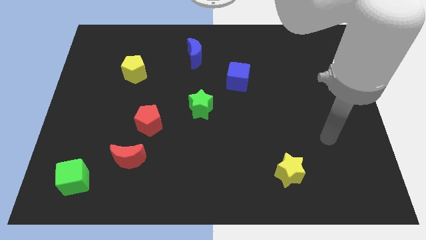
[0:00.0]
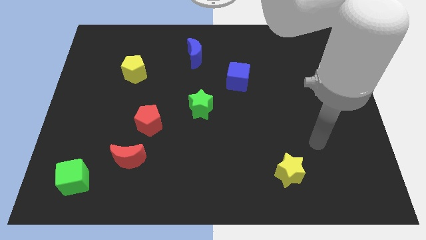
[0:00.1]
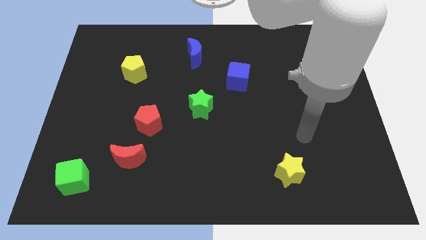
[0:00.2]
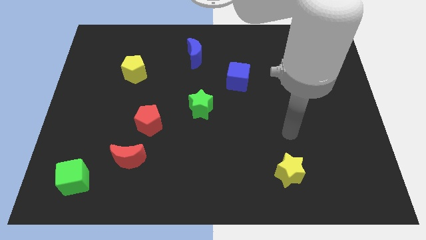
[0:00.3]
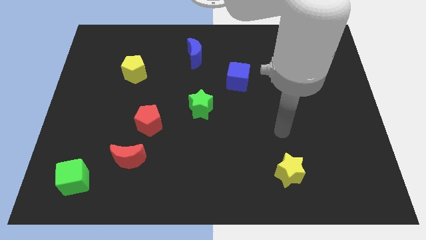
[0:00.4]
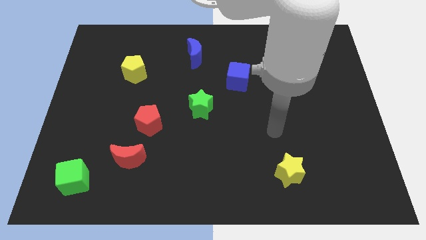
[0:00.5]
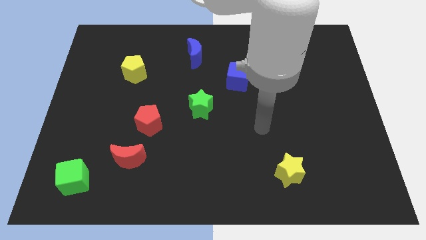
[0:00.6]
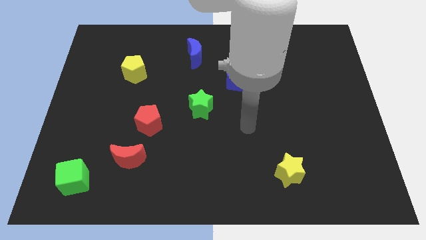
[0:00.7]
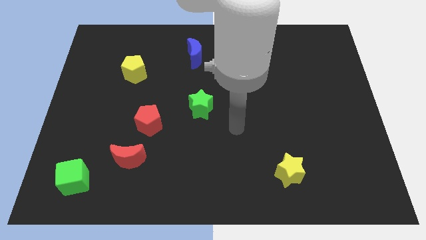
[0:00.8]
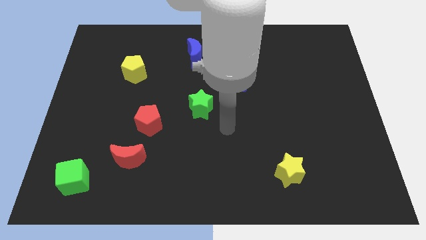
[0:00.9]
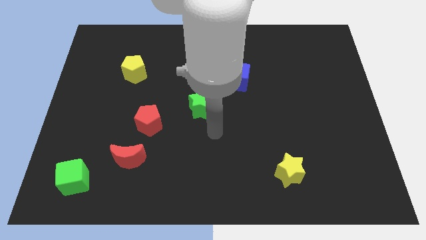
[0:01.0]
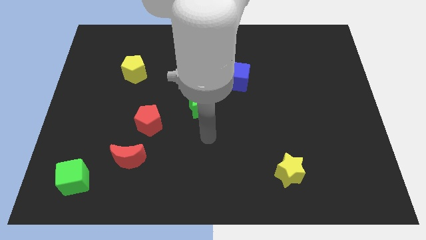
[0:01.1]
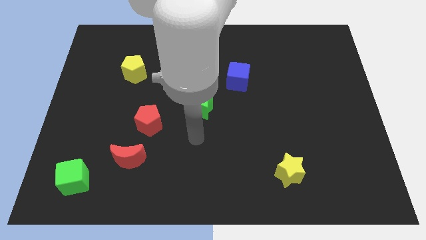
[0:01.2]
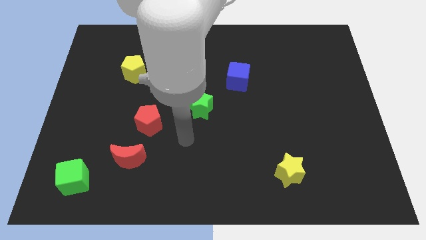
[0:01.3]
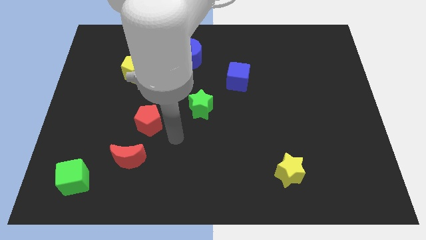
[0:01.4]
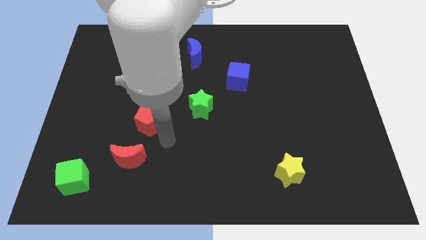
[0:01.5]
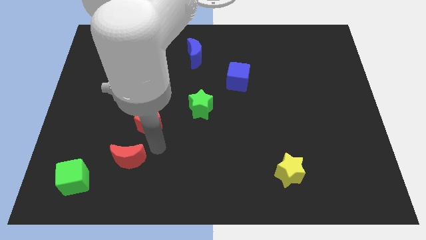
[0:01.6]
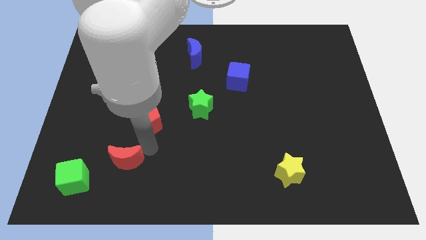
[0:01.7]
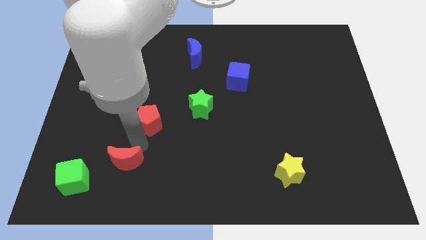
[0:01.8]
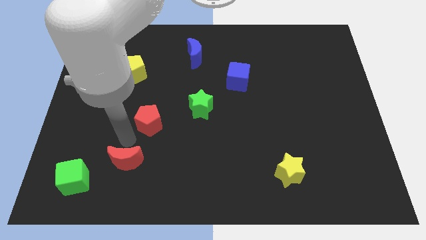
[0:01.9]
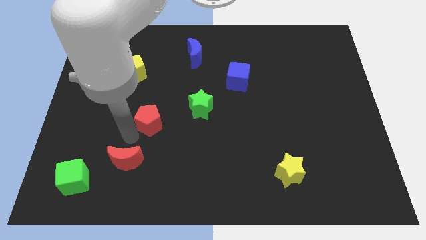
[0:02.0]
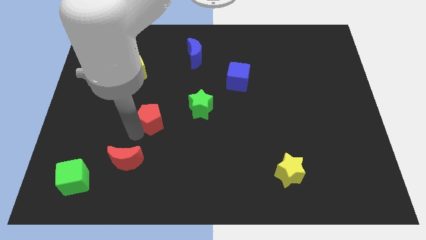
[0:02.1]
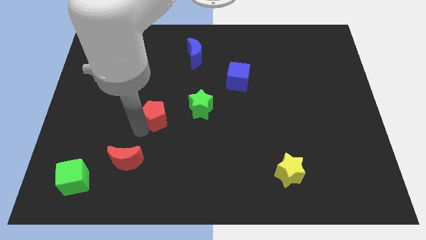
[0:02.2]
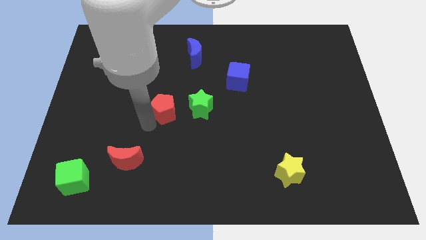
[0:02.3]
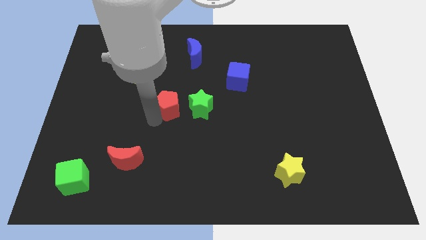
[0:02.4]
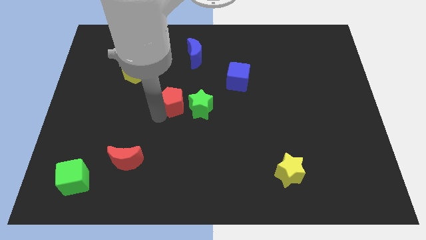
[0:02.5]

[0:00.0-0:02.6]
slide the red pentagon diagonally up and right a little bit

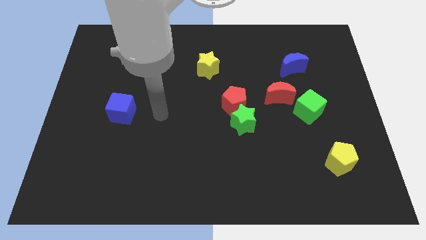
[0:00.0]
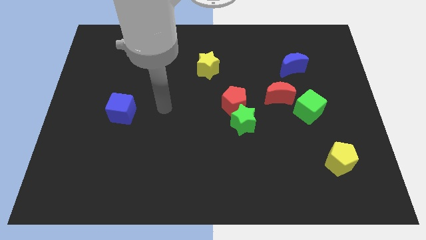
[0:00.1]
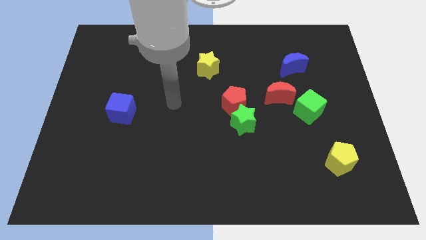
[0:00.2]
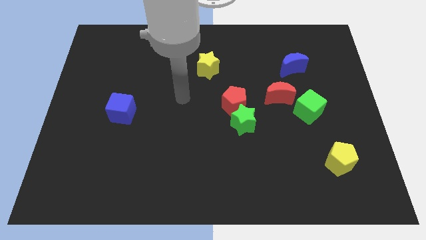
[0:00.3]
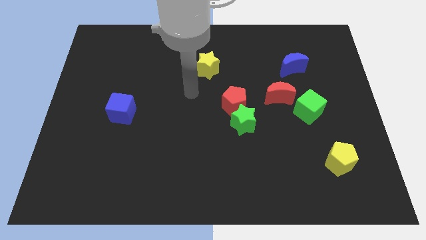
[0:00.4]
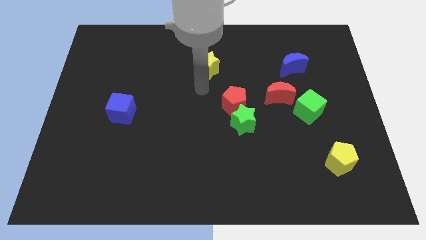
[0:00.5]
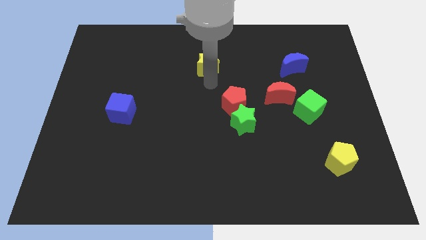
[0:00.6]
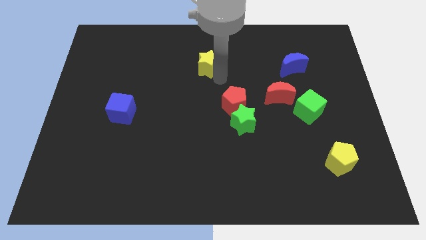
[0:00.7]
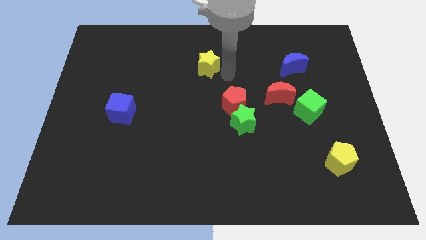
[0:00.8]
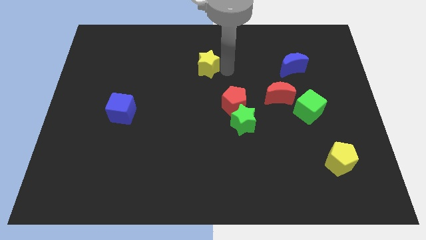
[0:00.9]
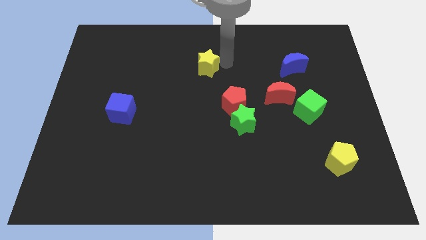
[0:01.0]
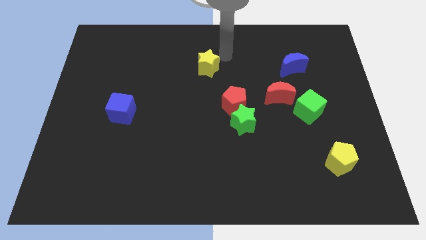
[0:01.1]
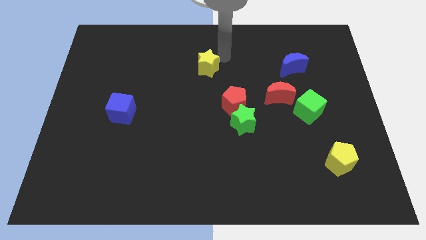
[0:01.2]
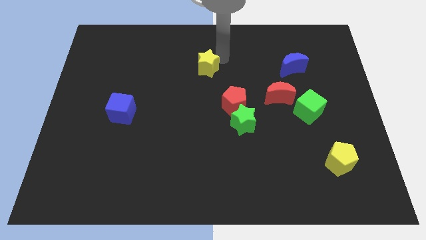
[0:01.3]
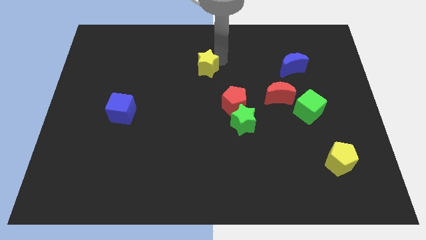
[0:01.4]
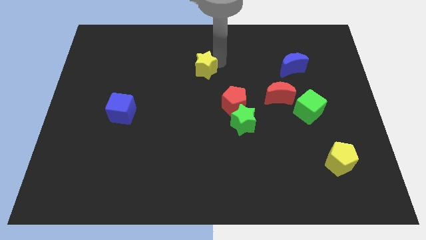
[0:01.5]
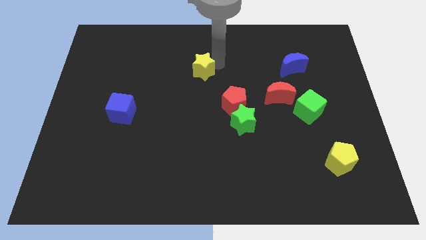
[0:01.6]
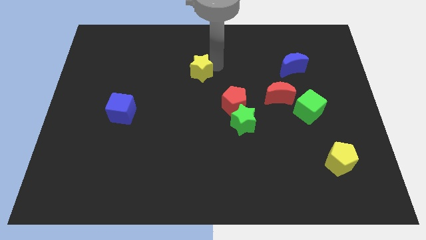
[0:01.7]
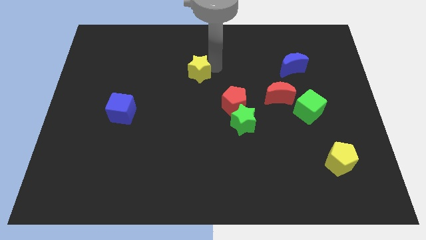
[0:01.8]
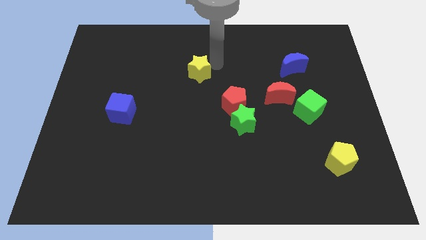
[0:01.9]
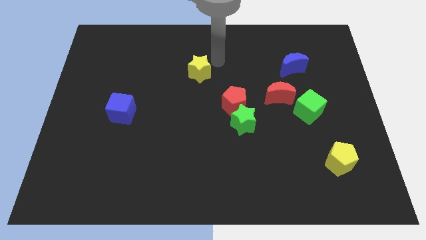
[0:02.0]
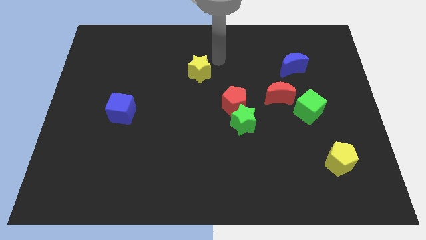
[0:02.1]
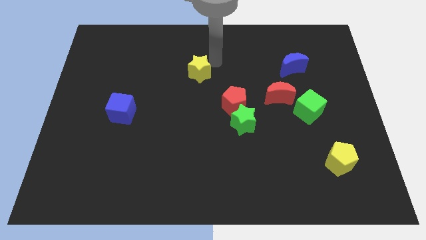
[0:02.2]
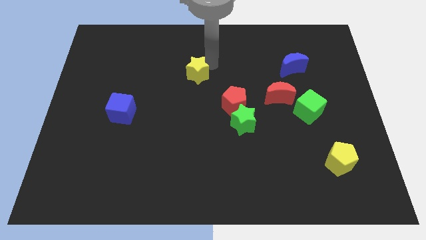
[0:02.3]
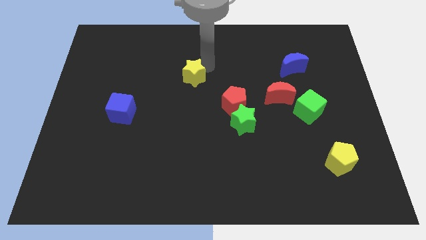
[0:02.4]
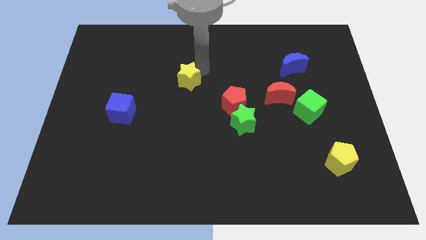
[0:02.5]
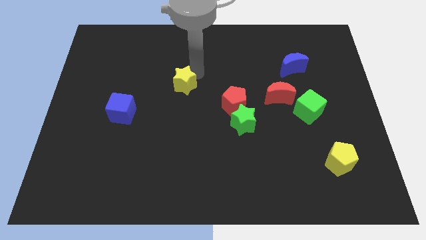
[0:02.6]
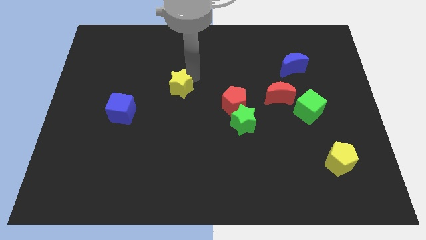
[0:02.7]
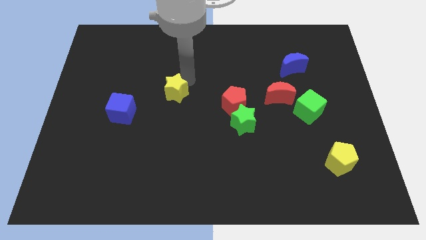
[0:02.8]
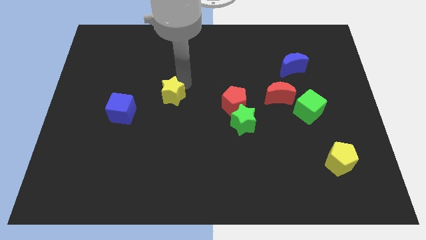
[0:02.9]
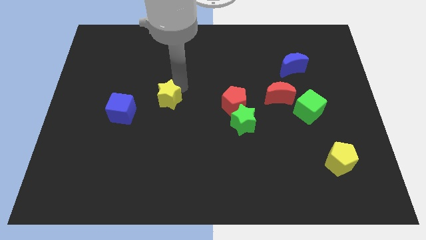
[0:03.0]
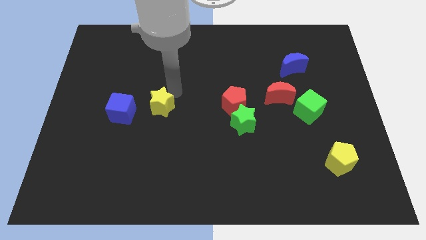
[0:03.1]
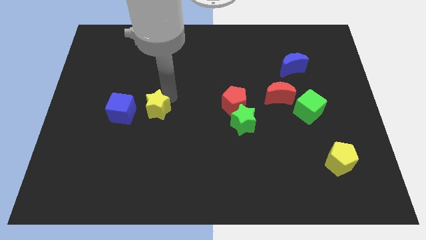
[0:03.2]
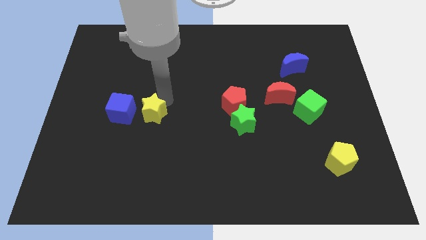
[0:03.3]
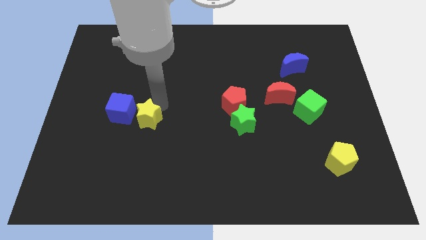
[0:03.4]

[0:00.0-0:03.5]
slide the yellow star down and then left

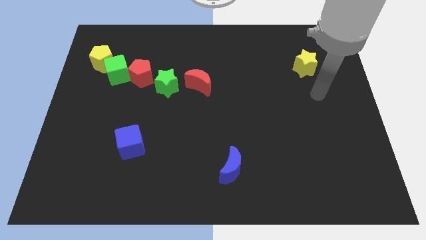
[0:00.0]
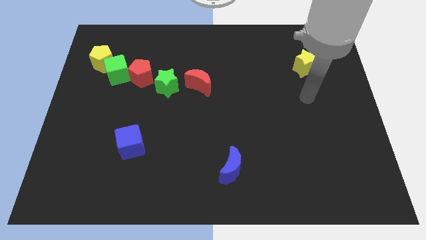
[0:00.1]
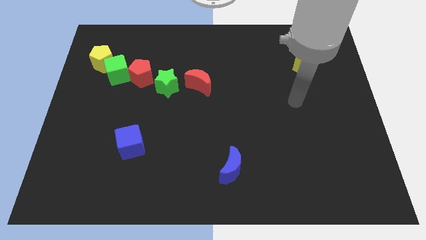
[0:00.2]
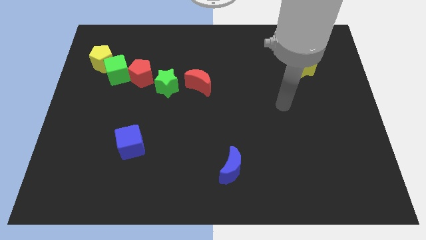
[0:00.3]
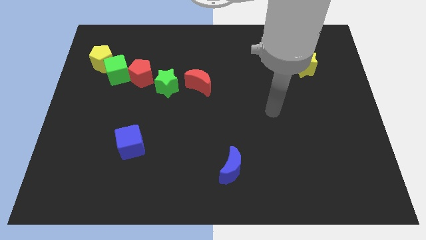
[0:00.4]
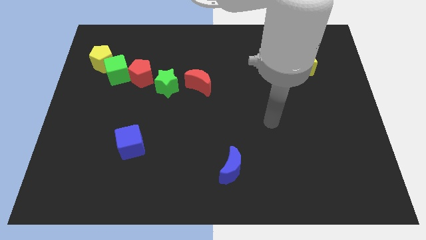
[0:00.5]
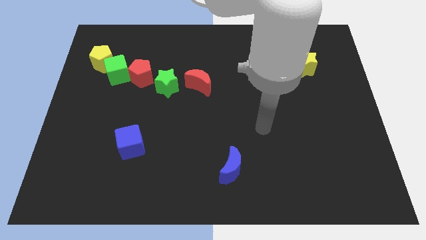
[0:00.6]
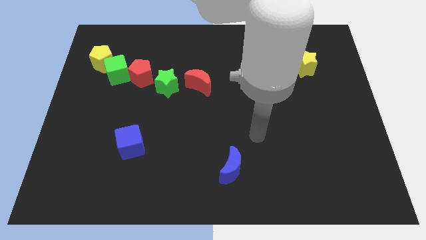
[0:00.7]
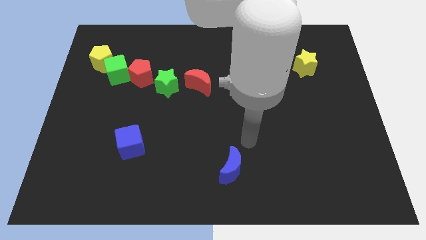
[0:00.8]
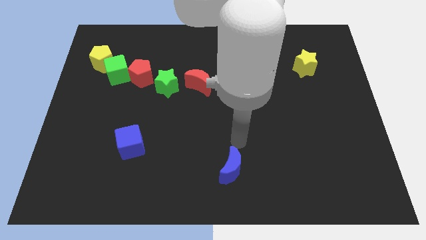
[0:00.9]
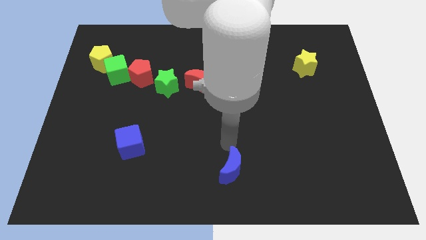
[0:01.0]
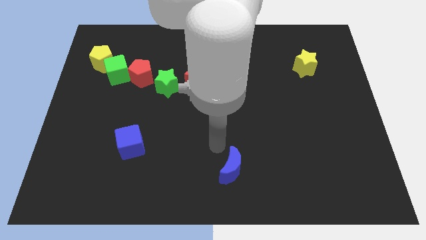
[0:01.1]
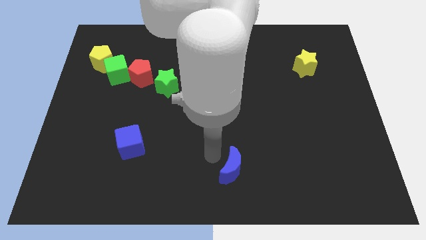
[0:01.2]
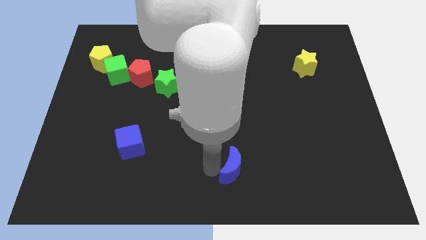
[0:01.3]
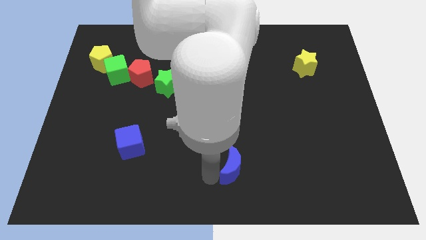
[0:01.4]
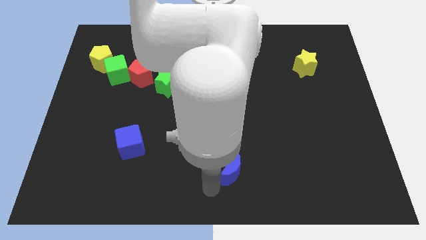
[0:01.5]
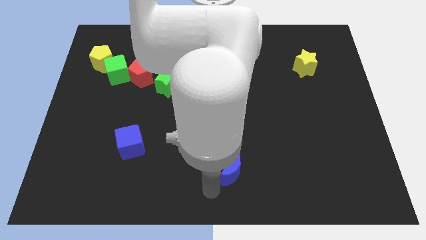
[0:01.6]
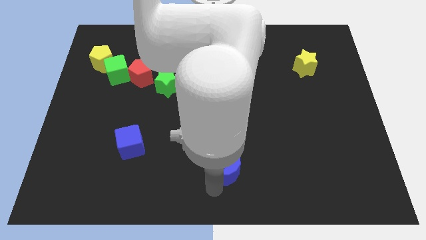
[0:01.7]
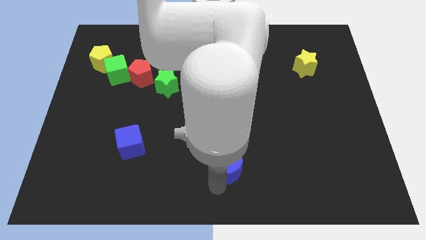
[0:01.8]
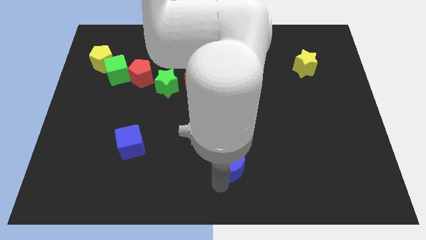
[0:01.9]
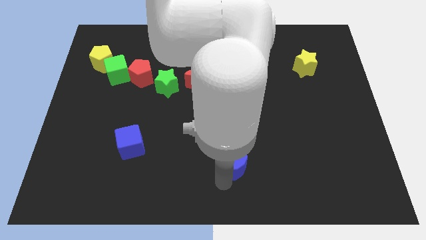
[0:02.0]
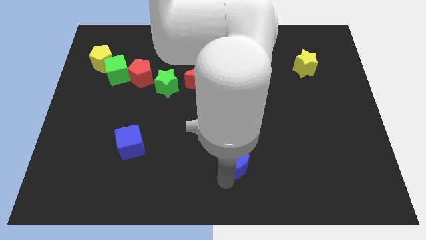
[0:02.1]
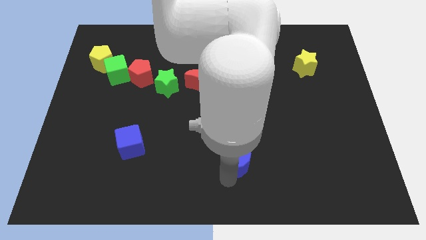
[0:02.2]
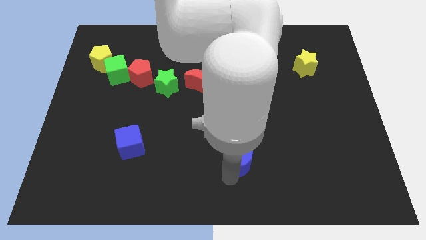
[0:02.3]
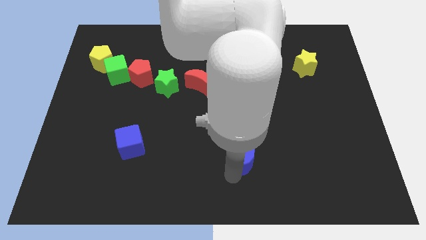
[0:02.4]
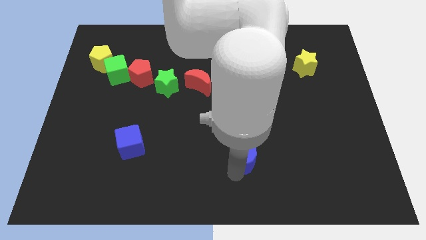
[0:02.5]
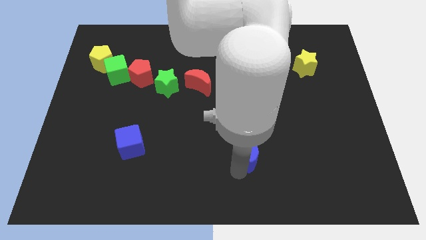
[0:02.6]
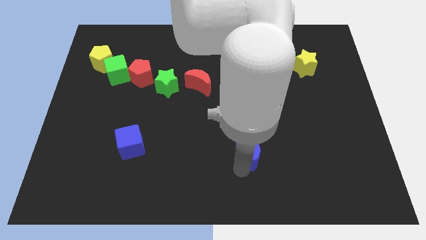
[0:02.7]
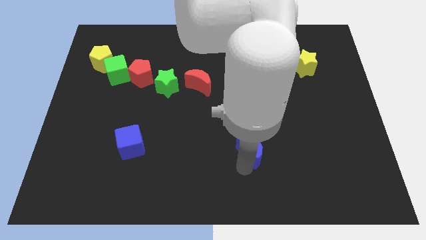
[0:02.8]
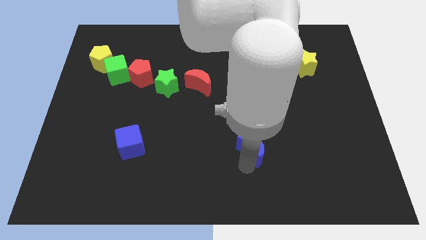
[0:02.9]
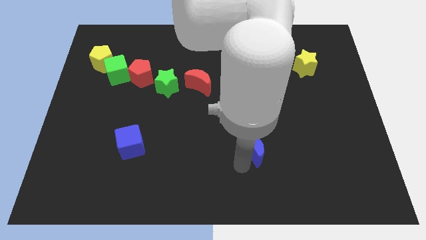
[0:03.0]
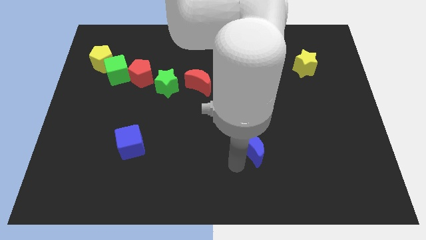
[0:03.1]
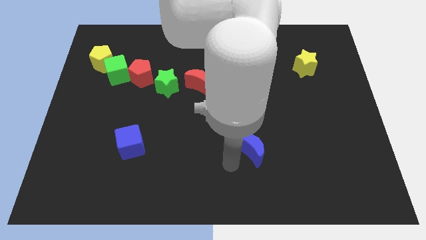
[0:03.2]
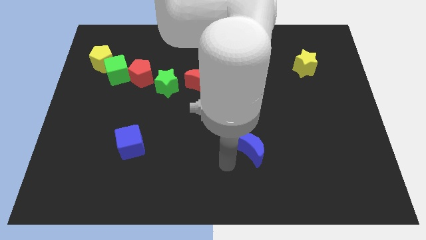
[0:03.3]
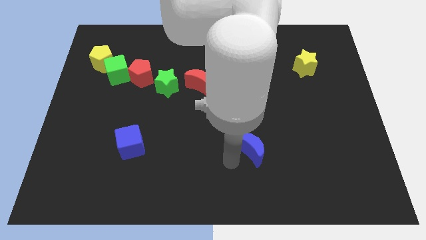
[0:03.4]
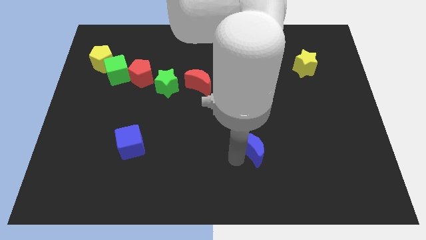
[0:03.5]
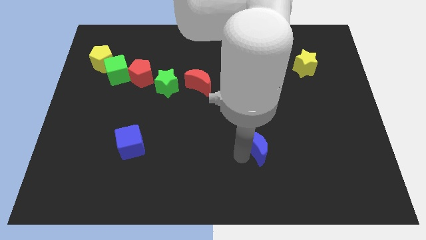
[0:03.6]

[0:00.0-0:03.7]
move the blue moon a little up and then to the right
